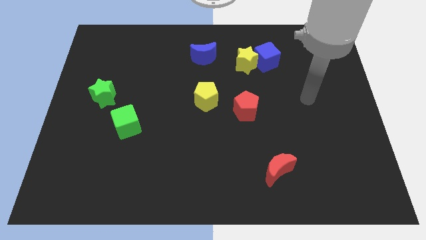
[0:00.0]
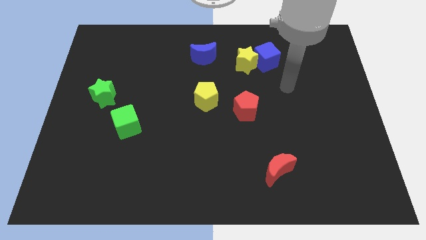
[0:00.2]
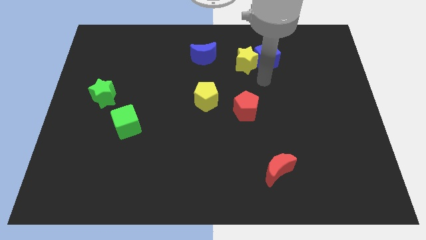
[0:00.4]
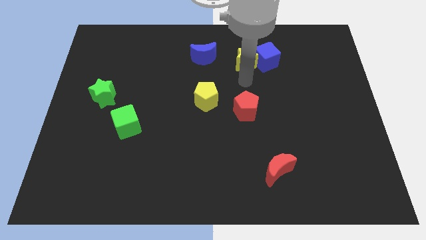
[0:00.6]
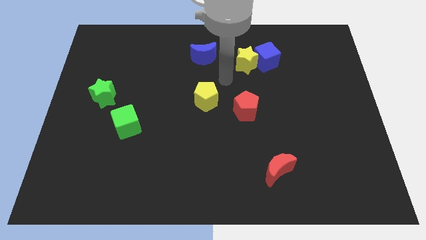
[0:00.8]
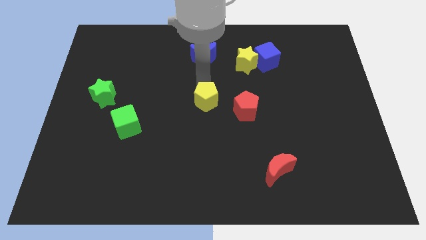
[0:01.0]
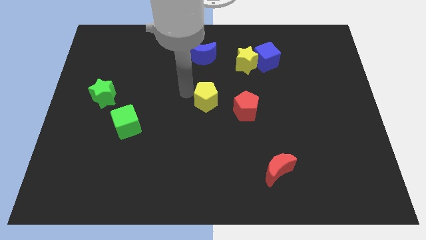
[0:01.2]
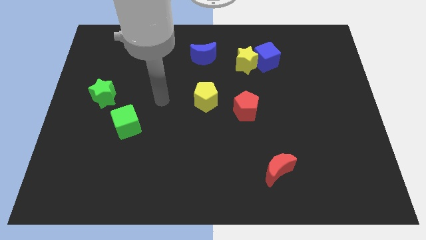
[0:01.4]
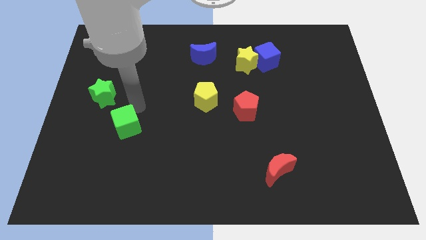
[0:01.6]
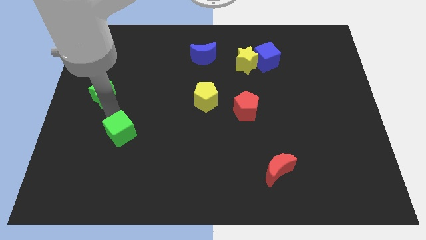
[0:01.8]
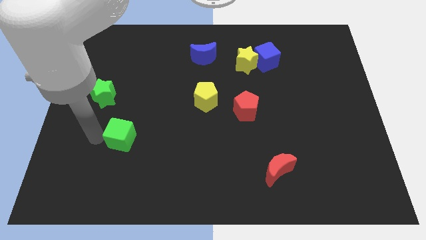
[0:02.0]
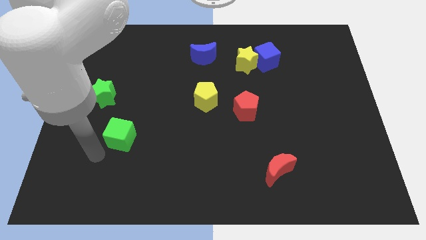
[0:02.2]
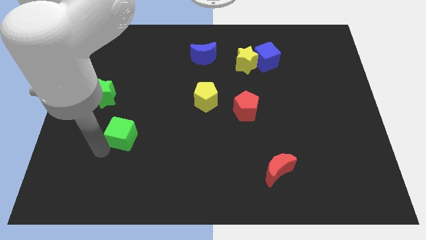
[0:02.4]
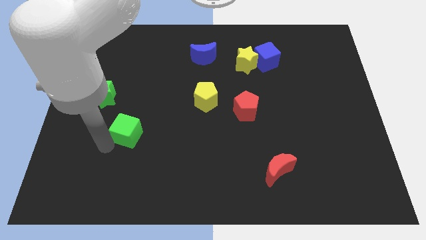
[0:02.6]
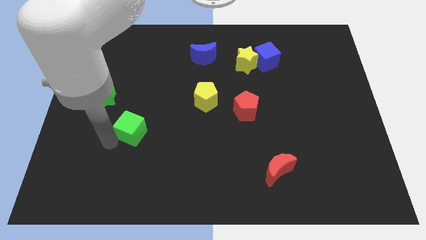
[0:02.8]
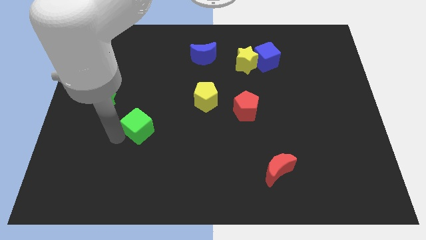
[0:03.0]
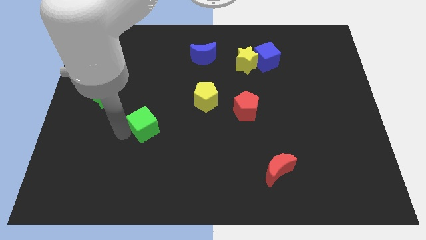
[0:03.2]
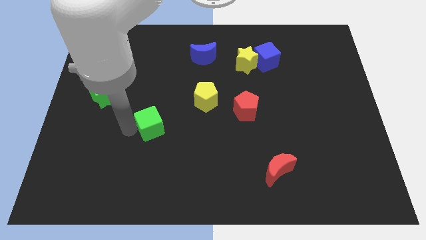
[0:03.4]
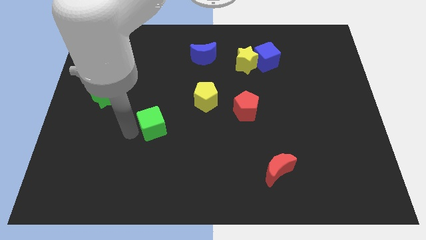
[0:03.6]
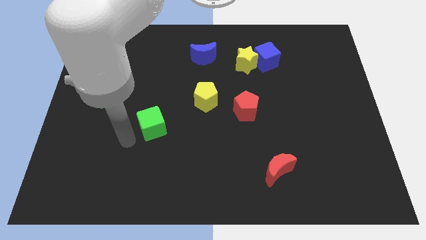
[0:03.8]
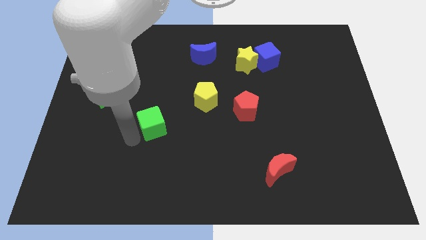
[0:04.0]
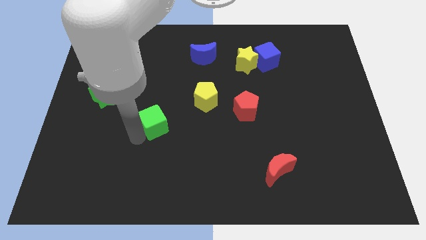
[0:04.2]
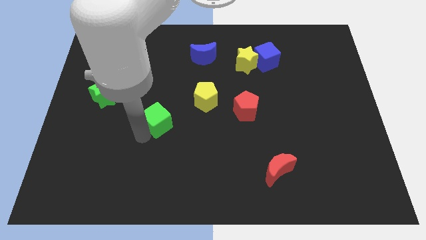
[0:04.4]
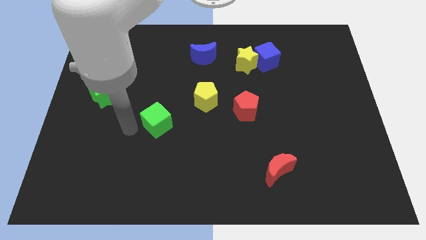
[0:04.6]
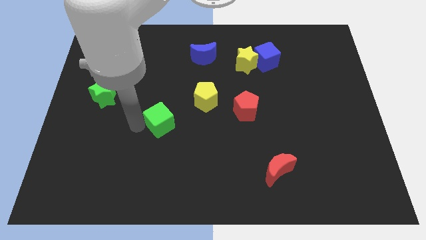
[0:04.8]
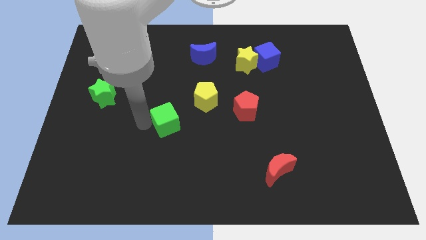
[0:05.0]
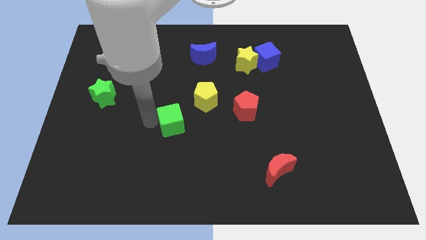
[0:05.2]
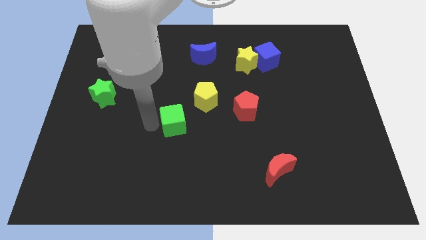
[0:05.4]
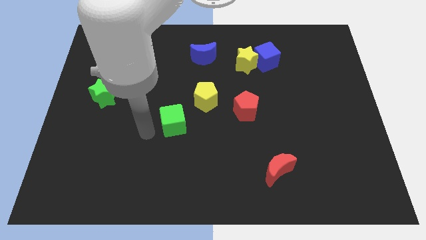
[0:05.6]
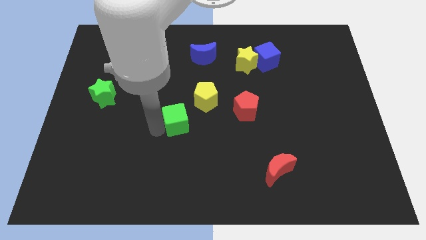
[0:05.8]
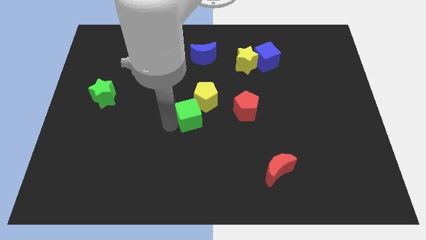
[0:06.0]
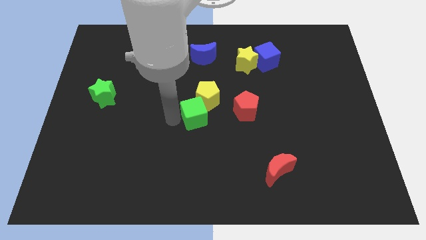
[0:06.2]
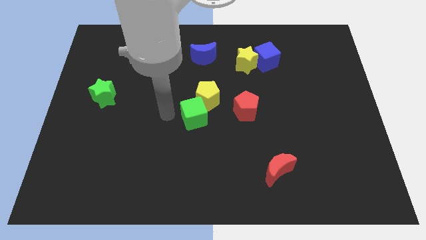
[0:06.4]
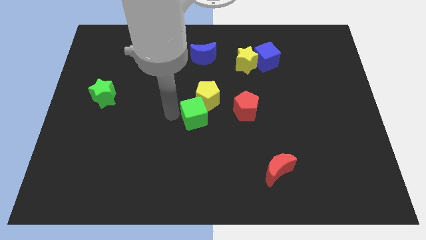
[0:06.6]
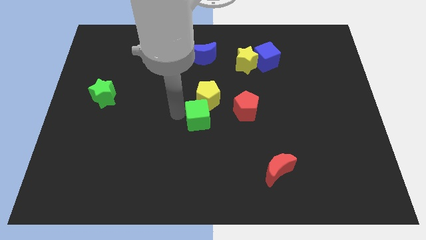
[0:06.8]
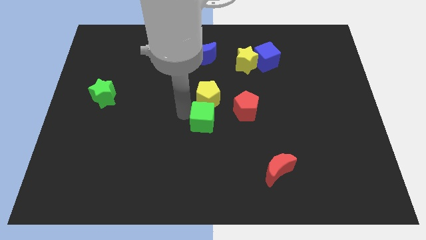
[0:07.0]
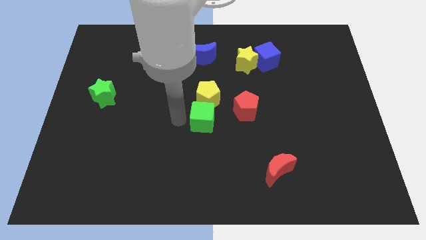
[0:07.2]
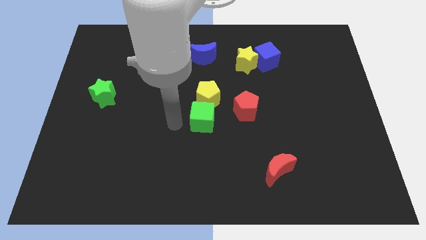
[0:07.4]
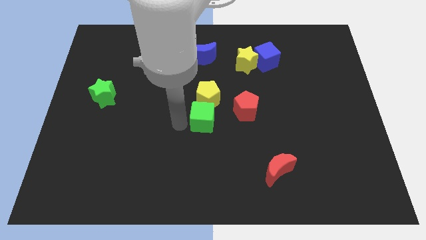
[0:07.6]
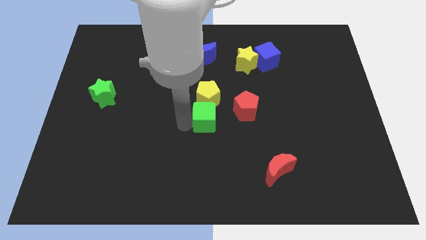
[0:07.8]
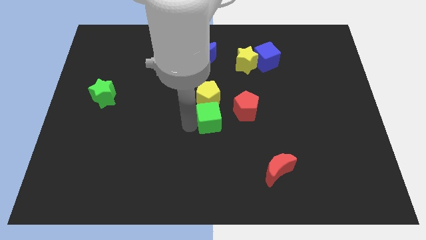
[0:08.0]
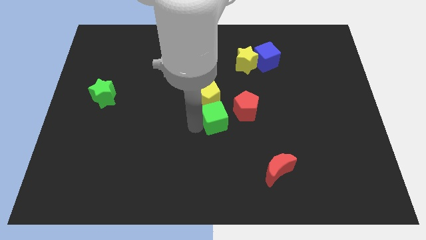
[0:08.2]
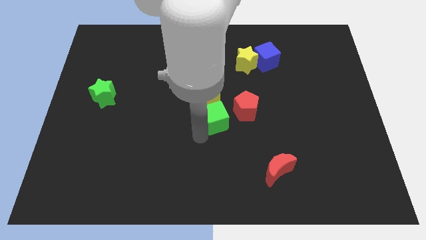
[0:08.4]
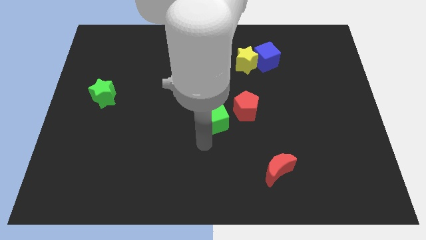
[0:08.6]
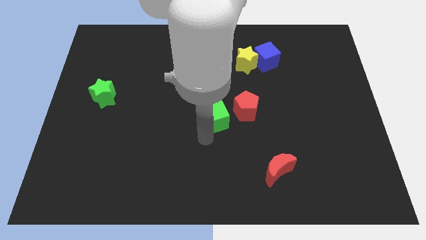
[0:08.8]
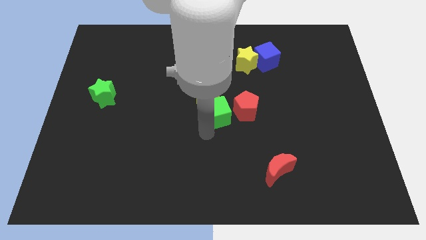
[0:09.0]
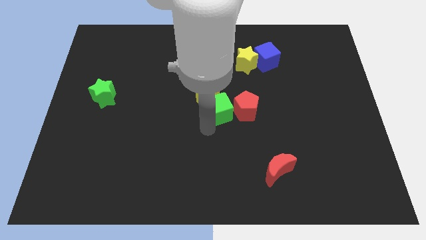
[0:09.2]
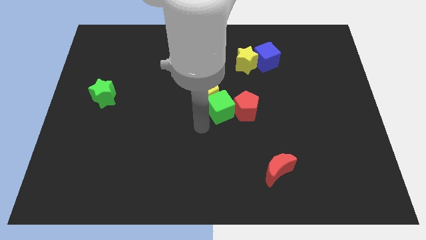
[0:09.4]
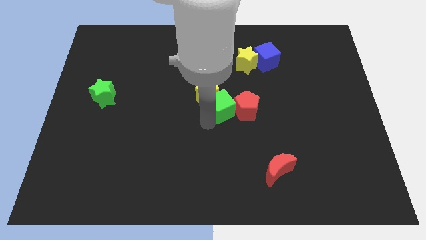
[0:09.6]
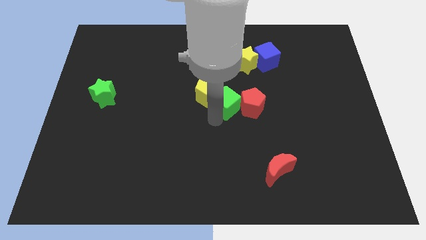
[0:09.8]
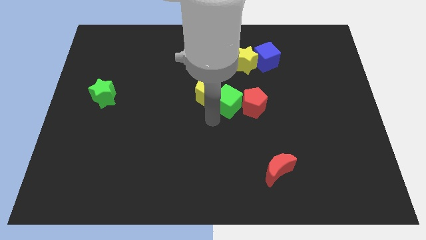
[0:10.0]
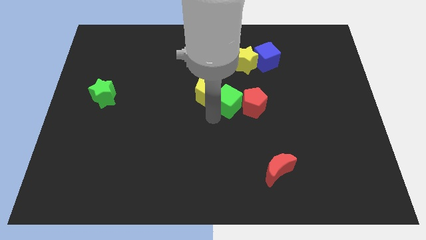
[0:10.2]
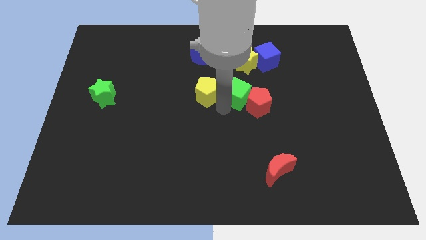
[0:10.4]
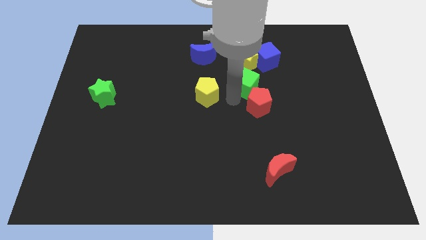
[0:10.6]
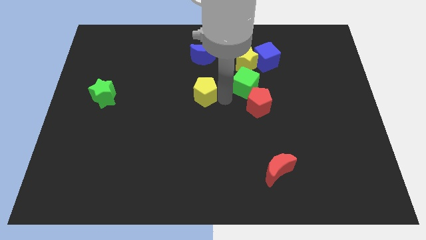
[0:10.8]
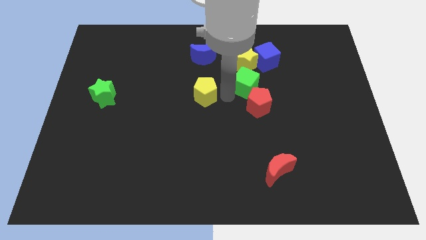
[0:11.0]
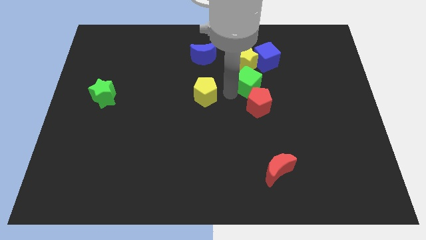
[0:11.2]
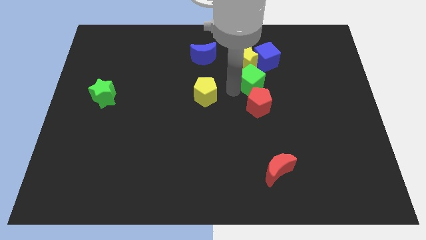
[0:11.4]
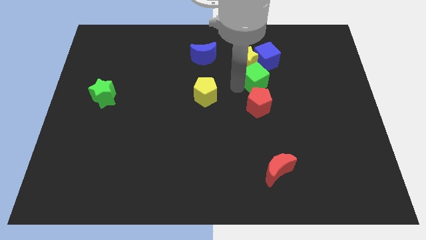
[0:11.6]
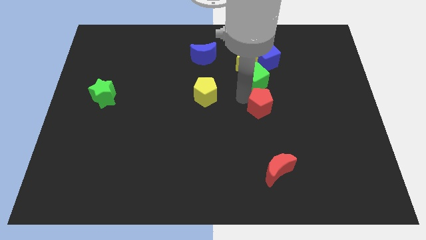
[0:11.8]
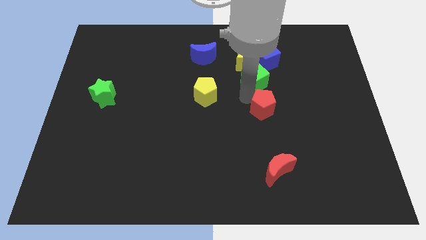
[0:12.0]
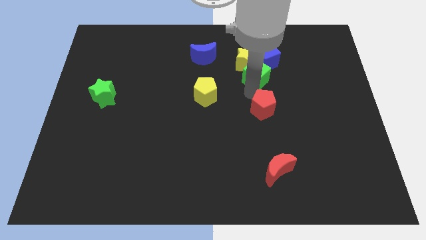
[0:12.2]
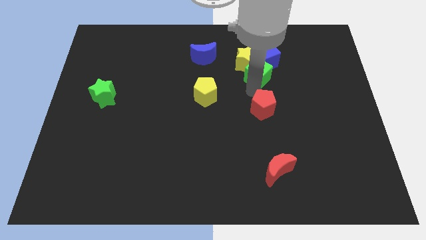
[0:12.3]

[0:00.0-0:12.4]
push the green cube to the blue cube

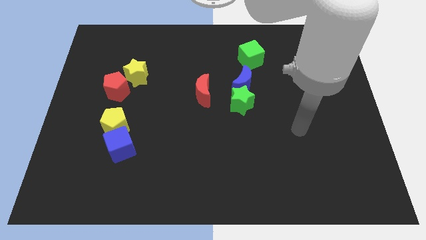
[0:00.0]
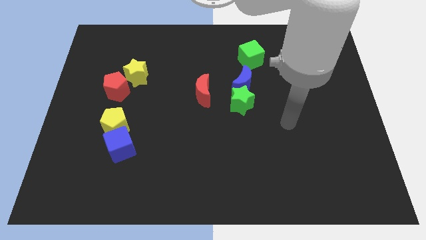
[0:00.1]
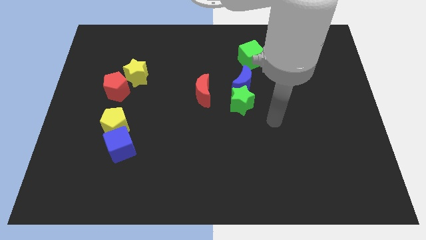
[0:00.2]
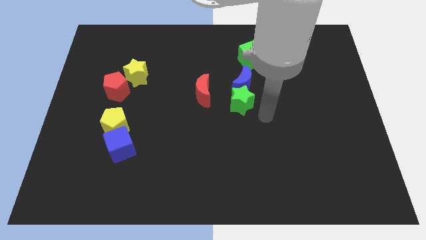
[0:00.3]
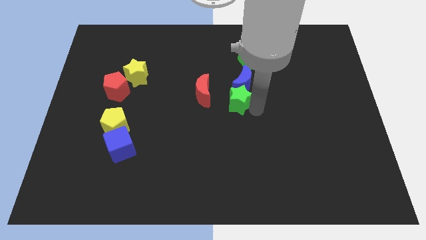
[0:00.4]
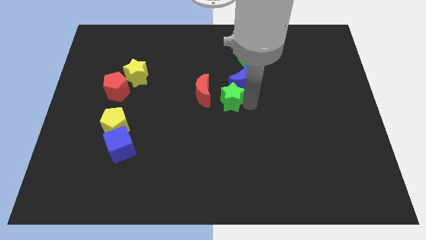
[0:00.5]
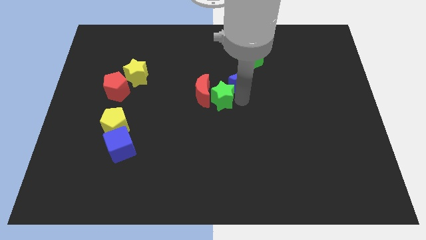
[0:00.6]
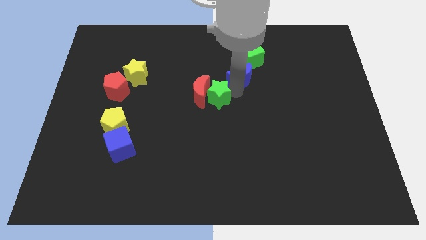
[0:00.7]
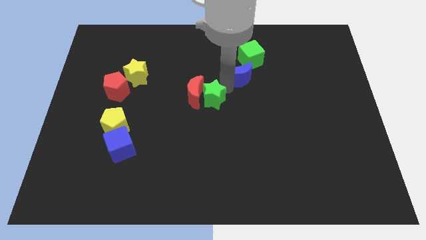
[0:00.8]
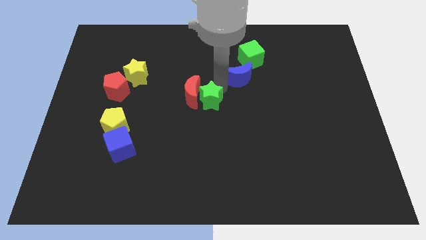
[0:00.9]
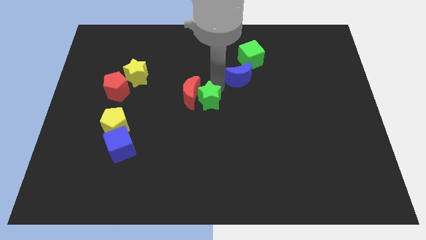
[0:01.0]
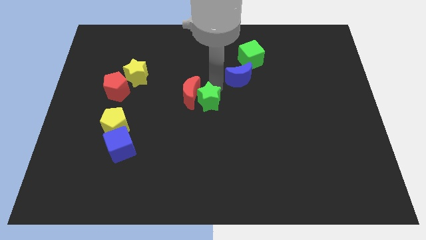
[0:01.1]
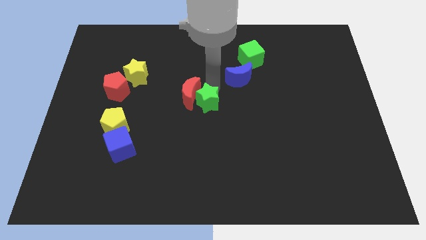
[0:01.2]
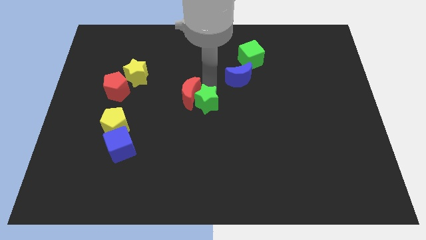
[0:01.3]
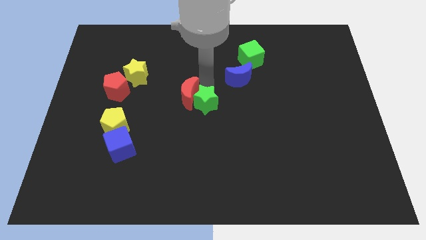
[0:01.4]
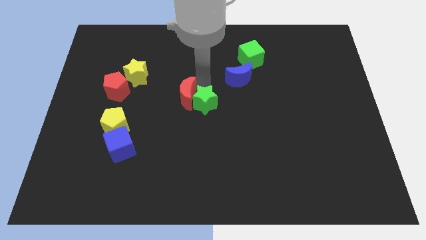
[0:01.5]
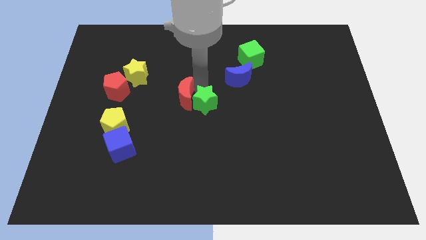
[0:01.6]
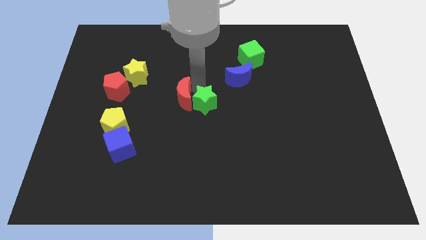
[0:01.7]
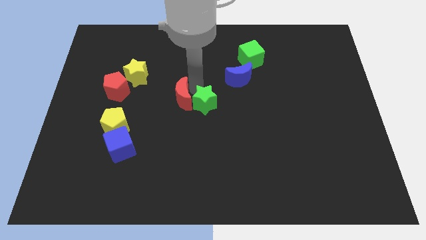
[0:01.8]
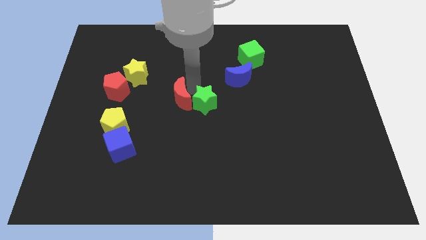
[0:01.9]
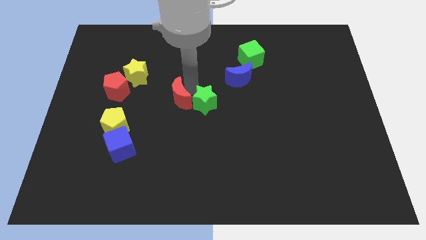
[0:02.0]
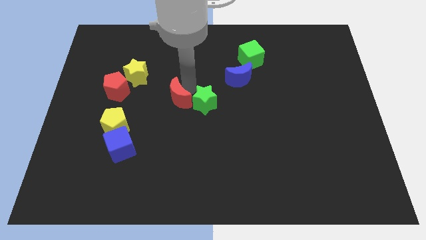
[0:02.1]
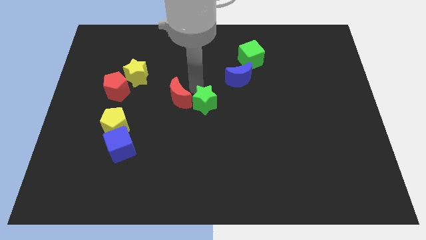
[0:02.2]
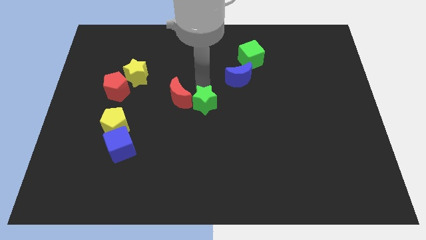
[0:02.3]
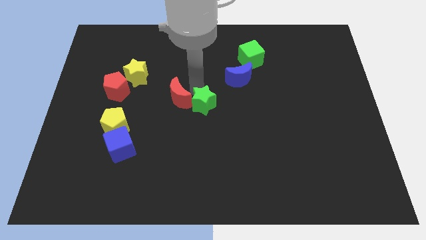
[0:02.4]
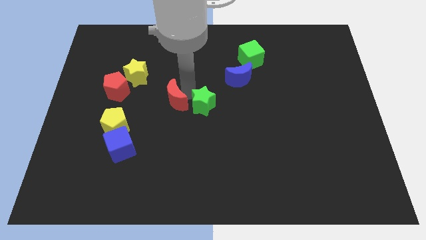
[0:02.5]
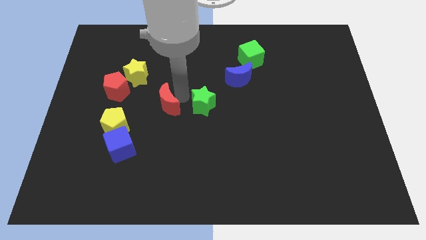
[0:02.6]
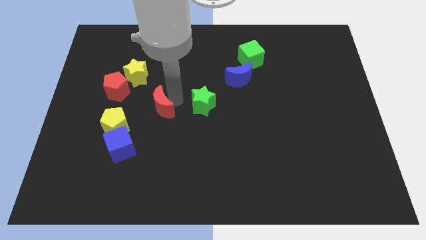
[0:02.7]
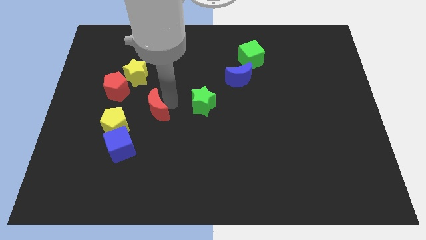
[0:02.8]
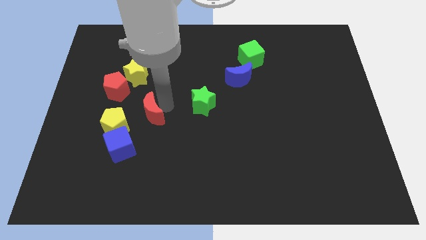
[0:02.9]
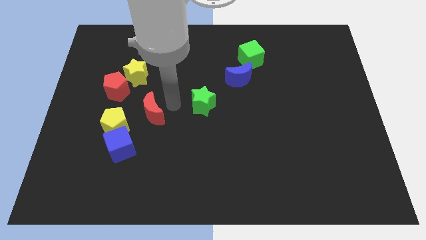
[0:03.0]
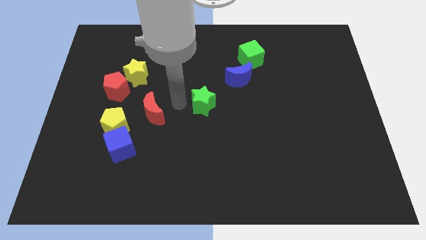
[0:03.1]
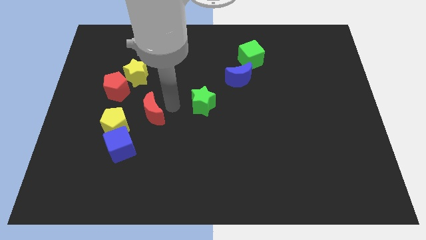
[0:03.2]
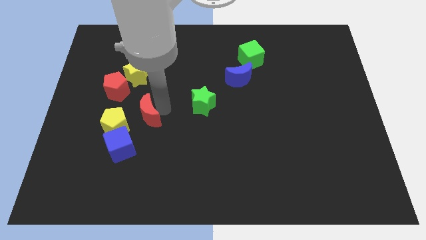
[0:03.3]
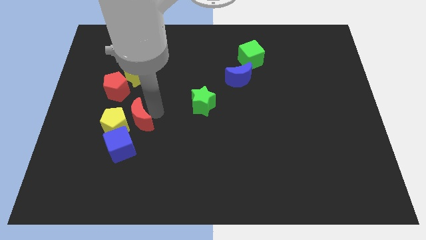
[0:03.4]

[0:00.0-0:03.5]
move the red moon towards the yellow pentagon
